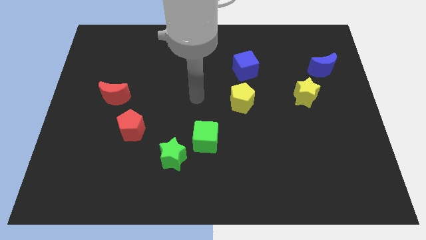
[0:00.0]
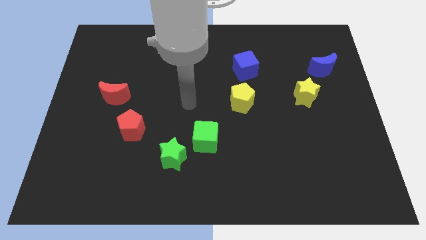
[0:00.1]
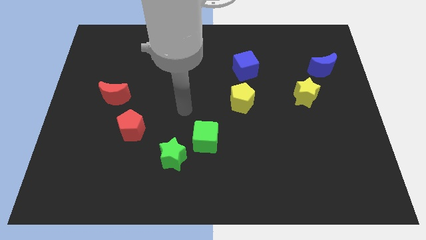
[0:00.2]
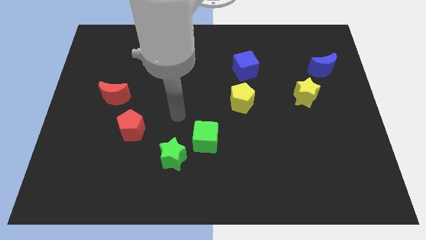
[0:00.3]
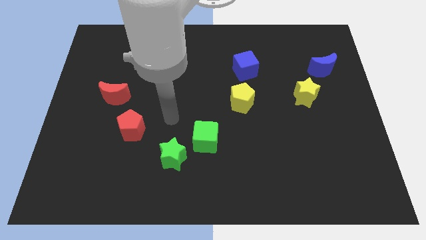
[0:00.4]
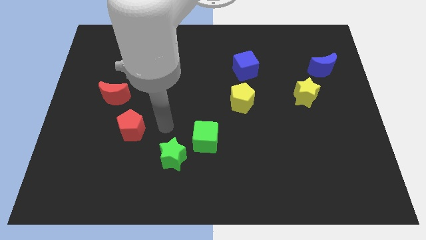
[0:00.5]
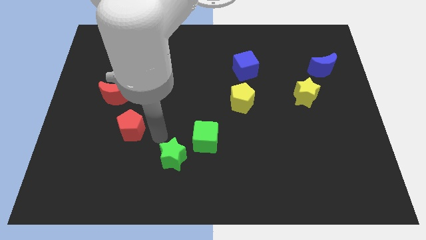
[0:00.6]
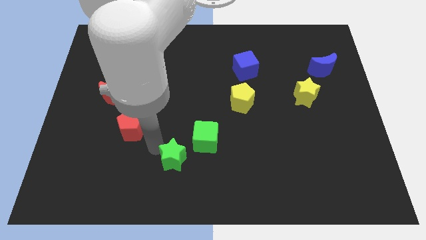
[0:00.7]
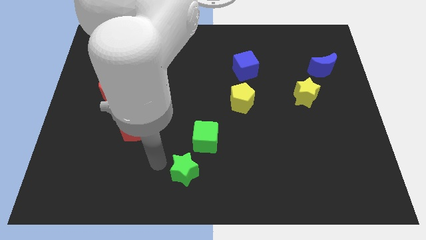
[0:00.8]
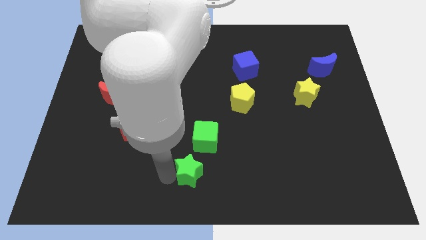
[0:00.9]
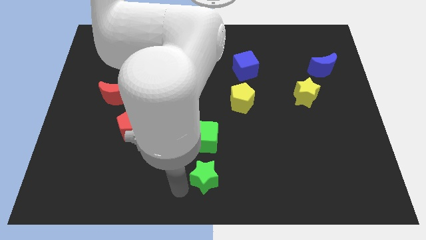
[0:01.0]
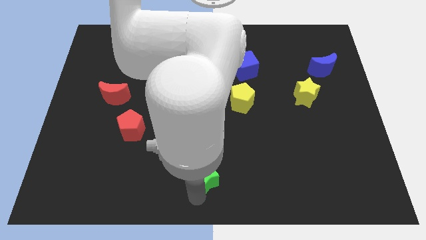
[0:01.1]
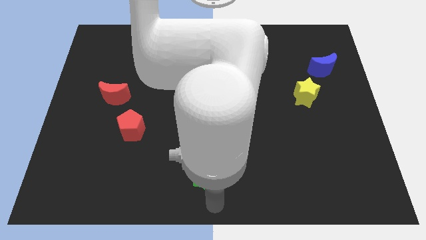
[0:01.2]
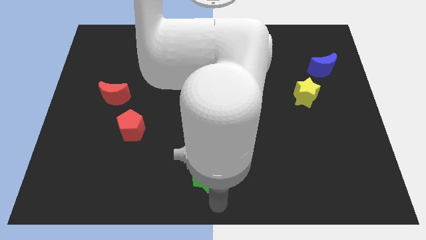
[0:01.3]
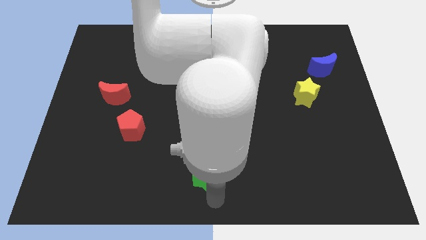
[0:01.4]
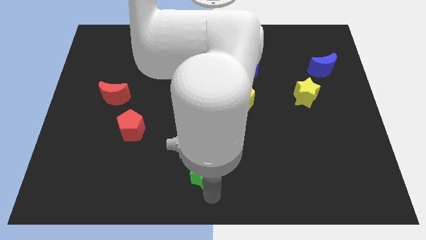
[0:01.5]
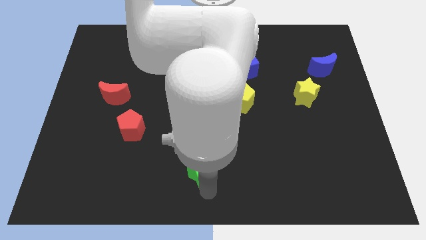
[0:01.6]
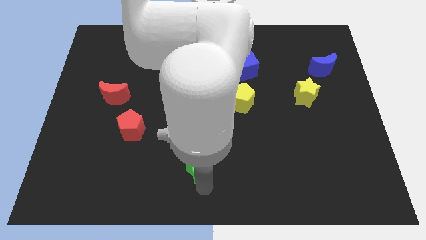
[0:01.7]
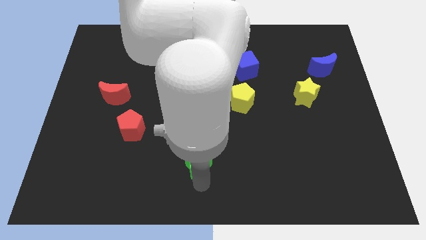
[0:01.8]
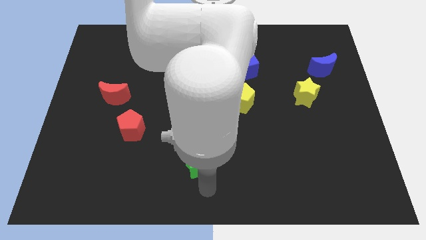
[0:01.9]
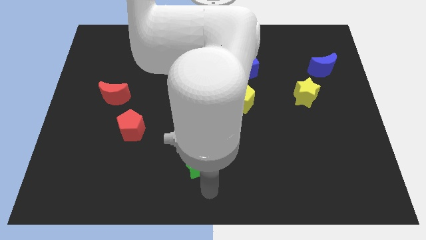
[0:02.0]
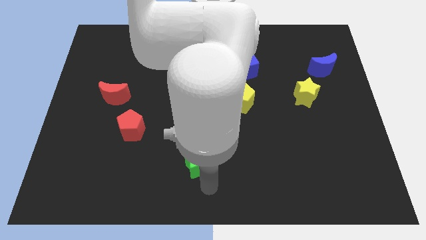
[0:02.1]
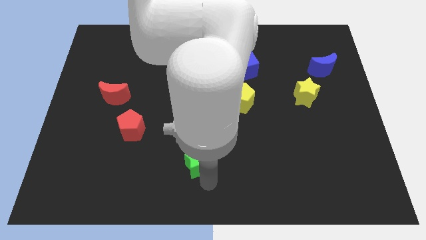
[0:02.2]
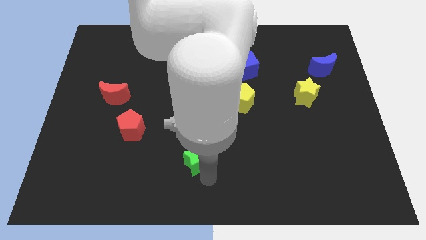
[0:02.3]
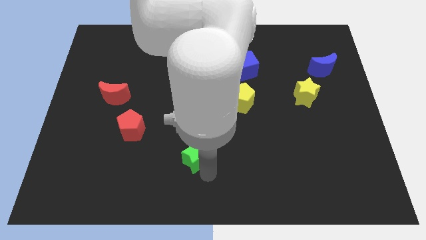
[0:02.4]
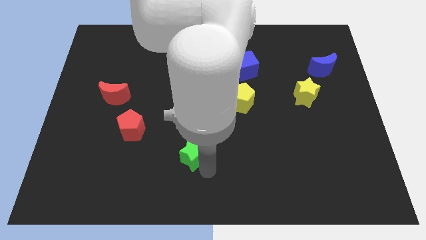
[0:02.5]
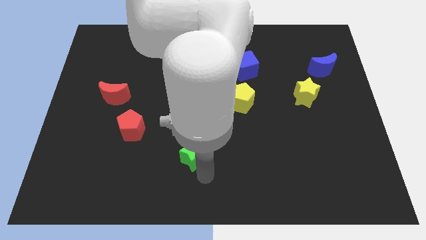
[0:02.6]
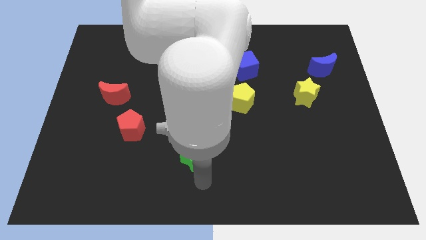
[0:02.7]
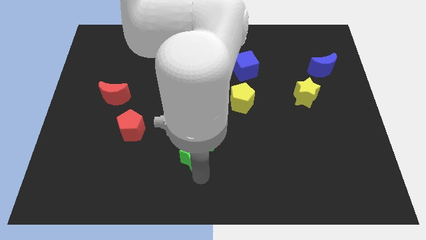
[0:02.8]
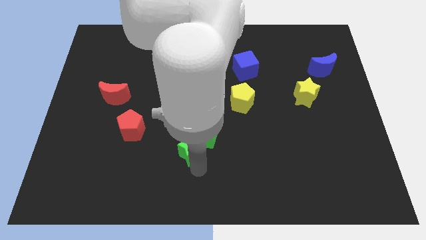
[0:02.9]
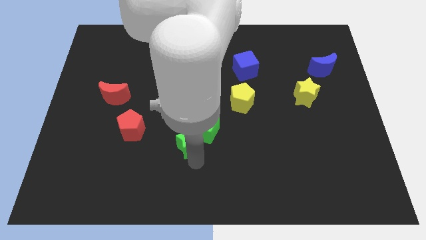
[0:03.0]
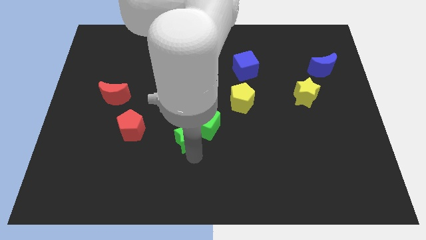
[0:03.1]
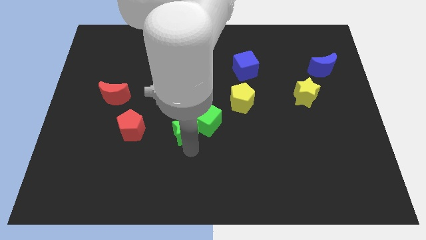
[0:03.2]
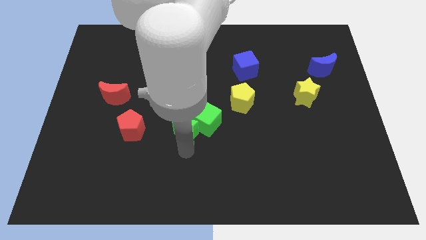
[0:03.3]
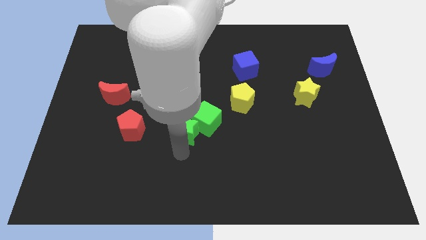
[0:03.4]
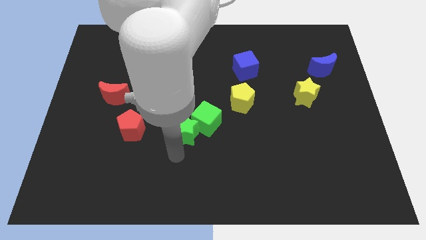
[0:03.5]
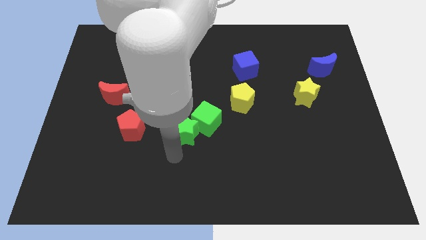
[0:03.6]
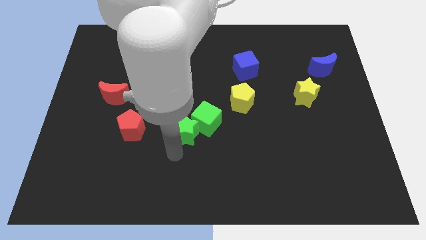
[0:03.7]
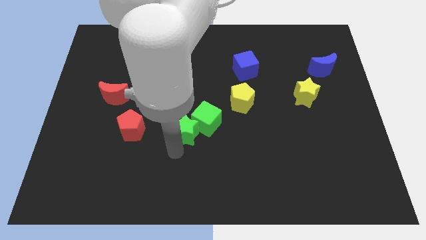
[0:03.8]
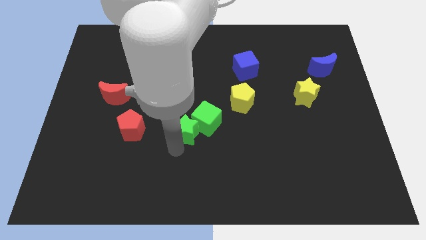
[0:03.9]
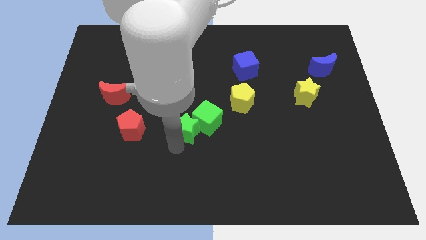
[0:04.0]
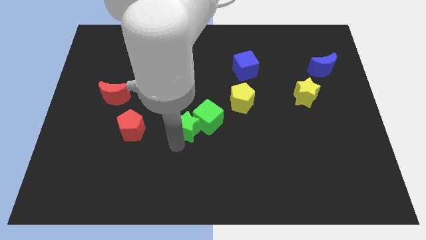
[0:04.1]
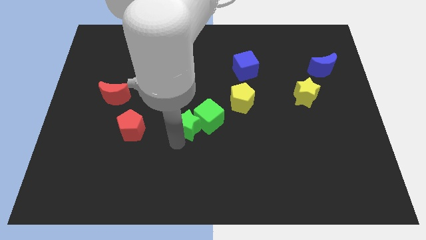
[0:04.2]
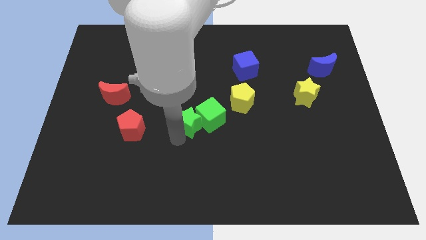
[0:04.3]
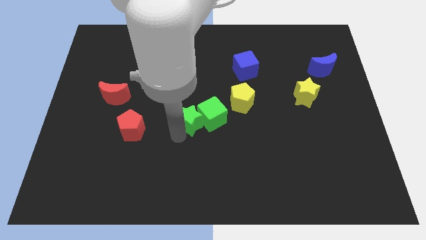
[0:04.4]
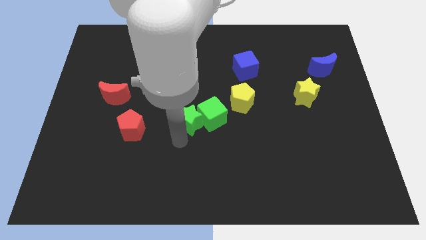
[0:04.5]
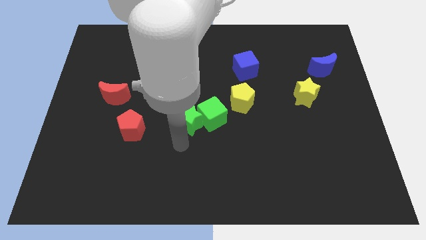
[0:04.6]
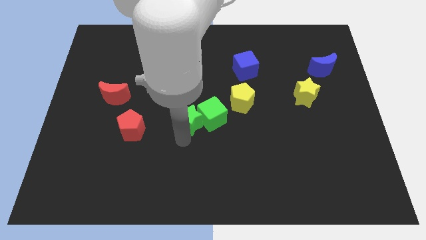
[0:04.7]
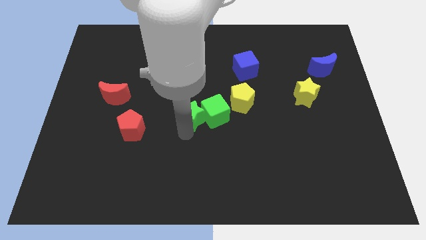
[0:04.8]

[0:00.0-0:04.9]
push the green star to the left side of the yellow pentagon

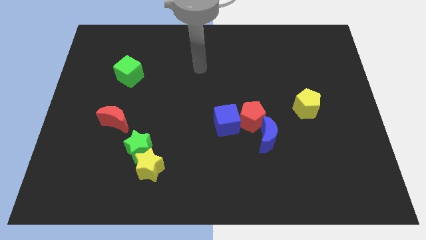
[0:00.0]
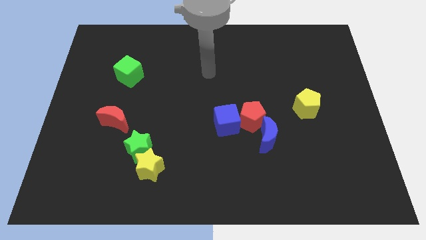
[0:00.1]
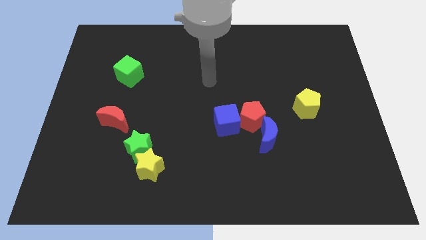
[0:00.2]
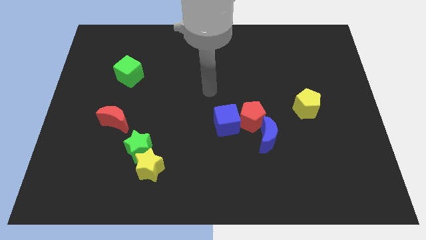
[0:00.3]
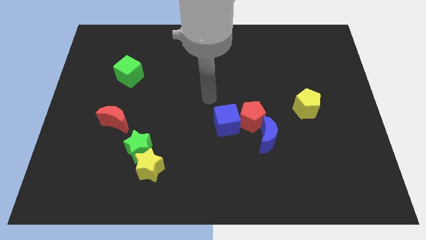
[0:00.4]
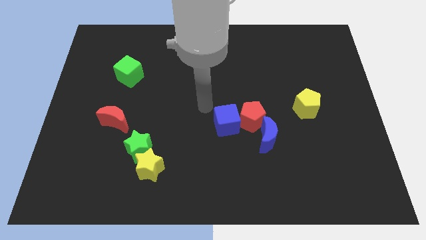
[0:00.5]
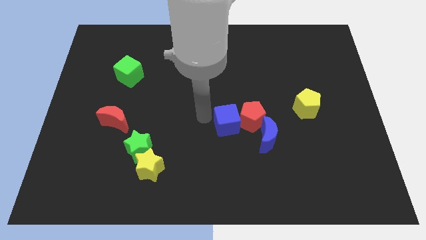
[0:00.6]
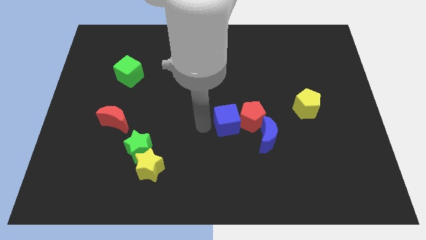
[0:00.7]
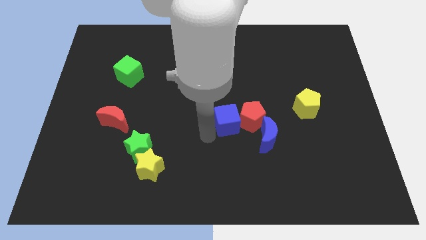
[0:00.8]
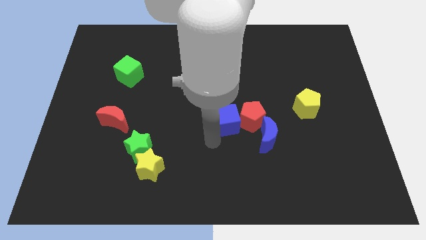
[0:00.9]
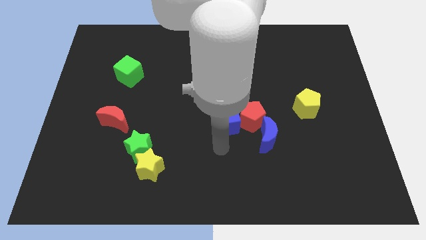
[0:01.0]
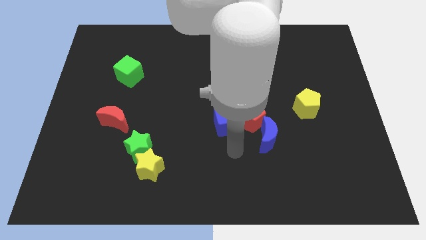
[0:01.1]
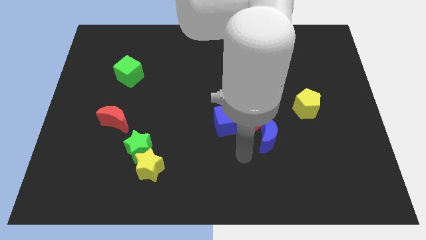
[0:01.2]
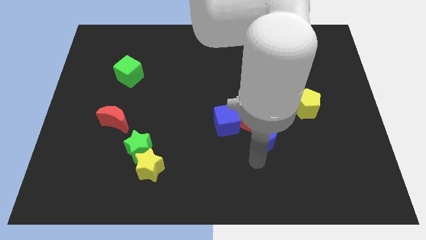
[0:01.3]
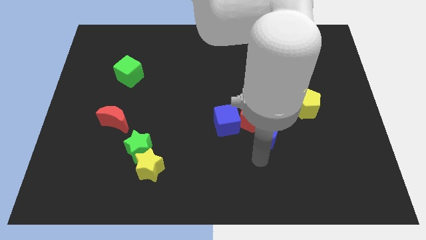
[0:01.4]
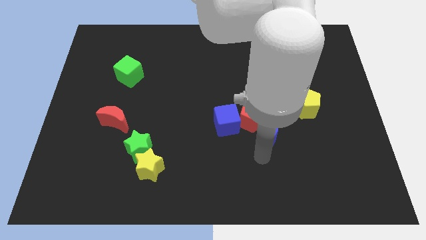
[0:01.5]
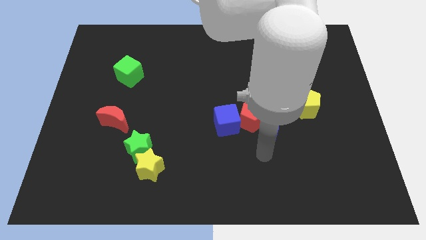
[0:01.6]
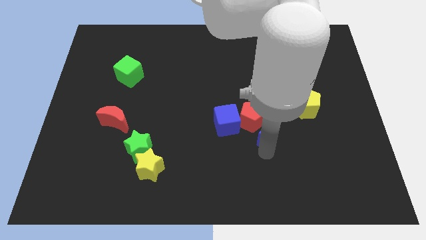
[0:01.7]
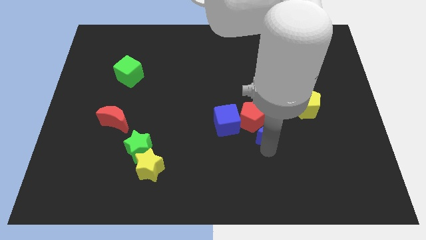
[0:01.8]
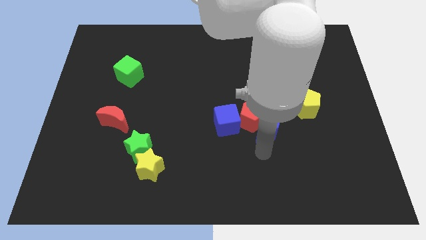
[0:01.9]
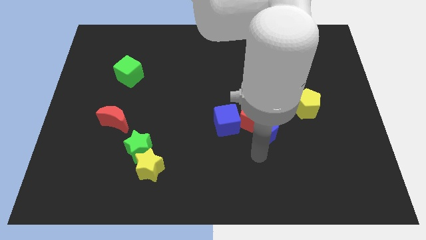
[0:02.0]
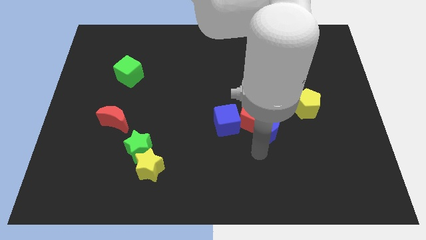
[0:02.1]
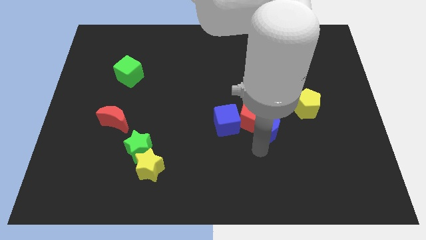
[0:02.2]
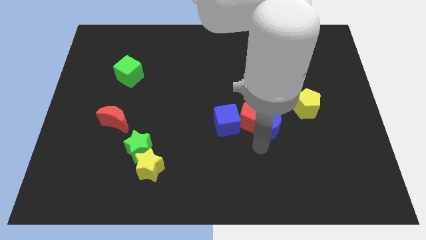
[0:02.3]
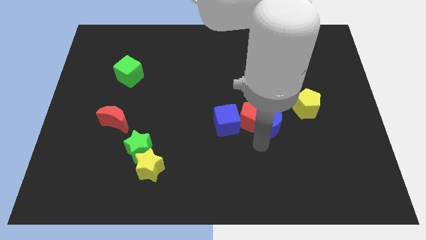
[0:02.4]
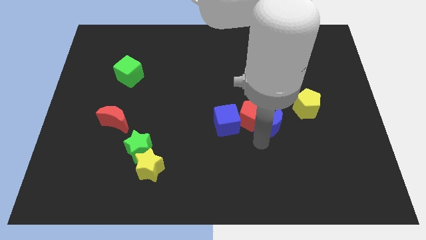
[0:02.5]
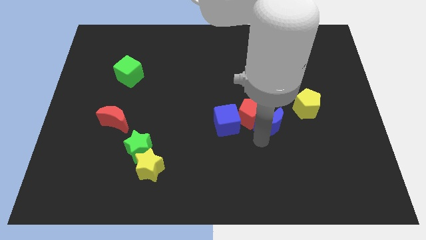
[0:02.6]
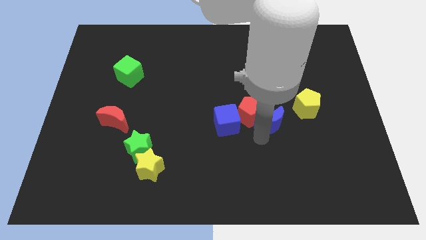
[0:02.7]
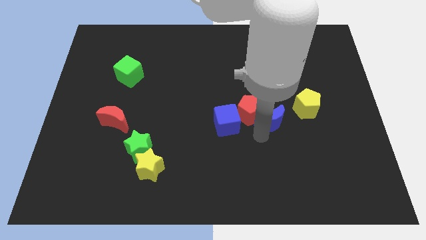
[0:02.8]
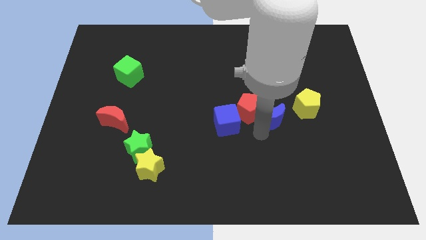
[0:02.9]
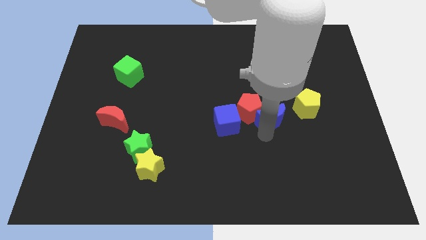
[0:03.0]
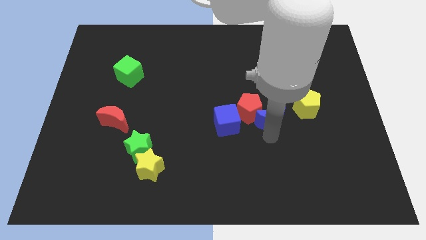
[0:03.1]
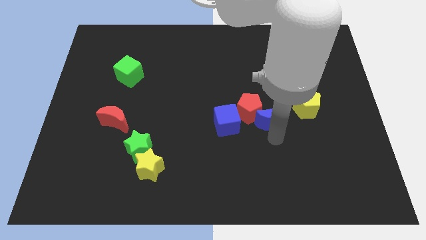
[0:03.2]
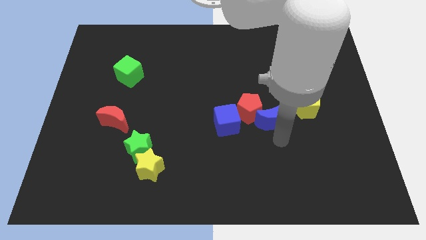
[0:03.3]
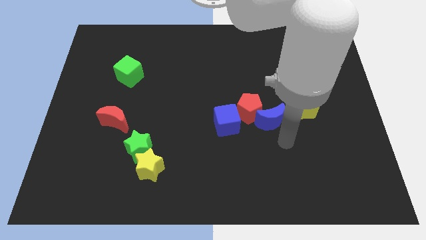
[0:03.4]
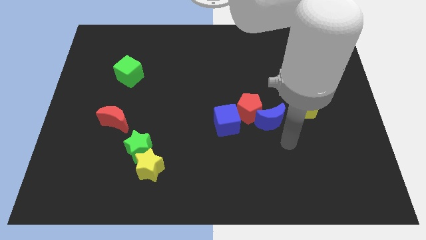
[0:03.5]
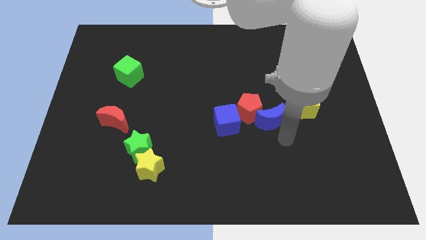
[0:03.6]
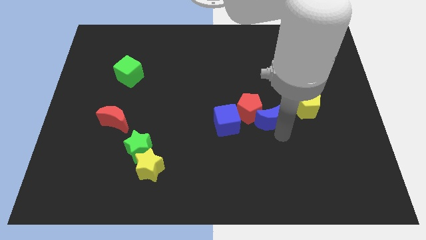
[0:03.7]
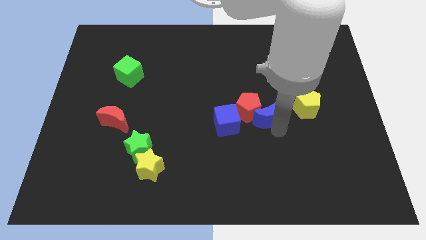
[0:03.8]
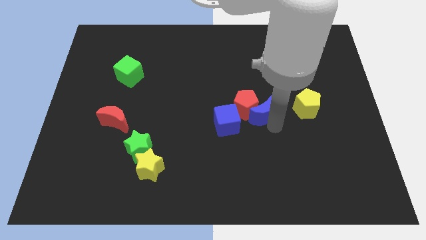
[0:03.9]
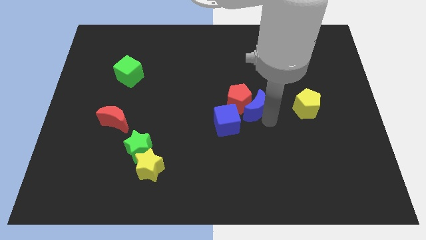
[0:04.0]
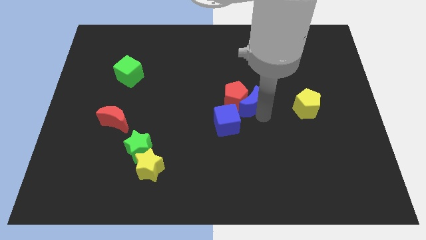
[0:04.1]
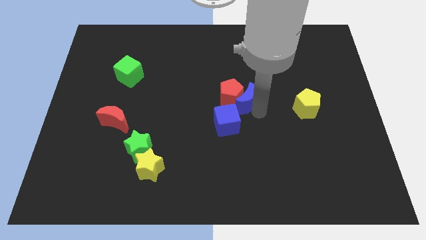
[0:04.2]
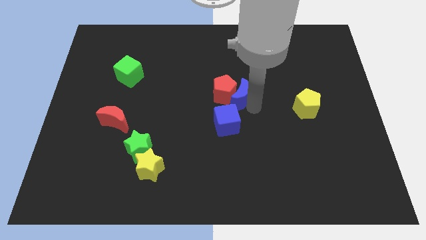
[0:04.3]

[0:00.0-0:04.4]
put the blue moon above the blue cube
